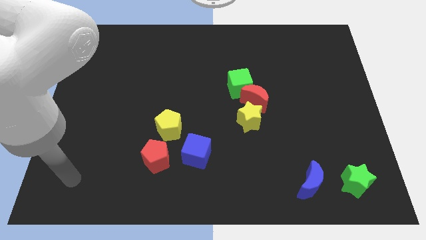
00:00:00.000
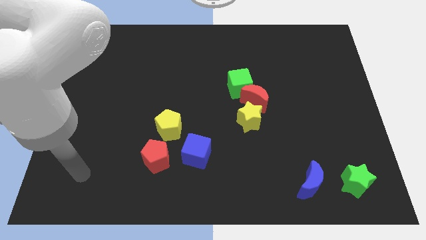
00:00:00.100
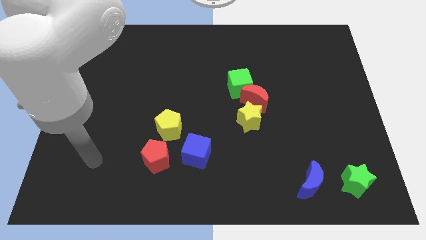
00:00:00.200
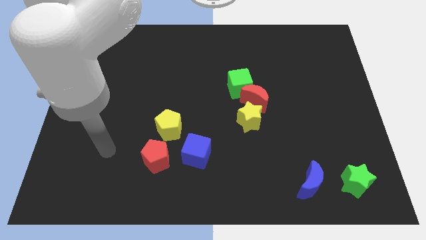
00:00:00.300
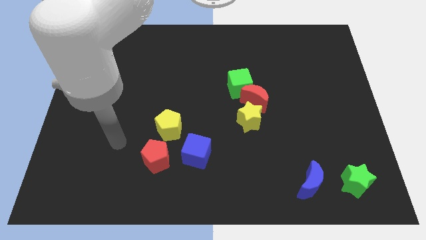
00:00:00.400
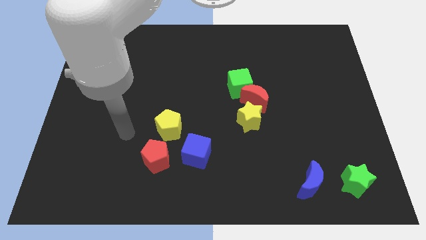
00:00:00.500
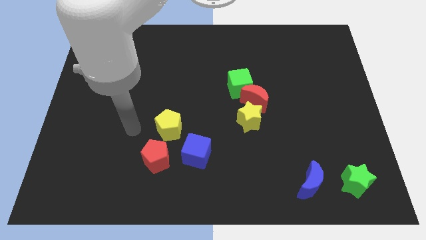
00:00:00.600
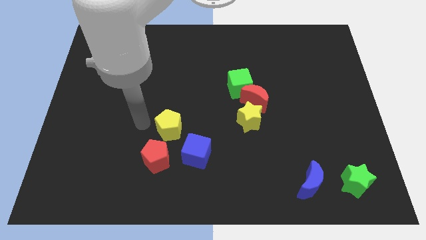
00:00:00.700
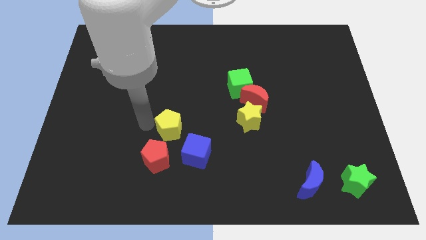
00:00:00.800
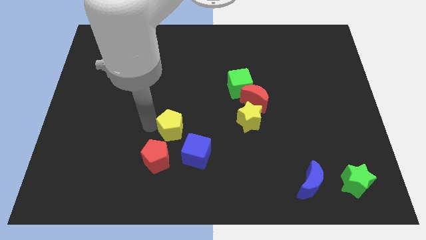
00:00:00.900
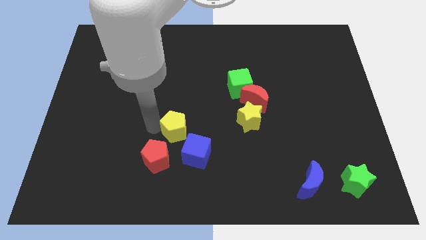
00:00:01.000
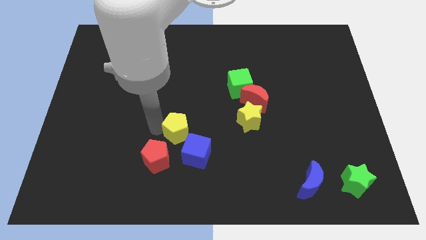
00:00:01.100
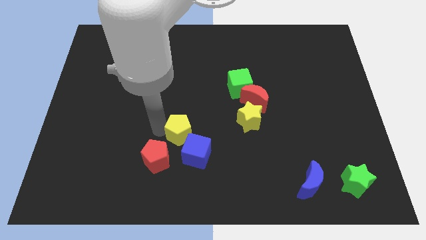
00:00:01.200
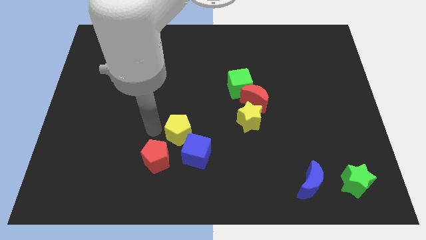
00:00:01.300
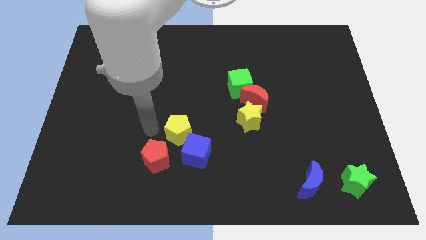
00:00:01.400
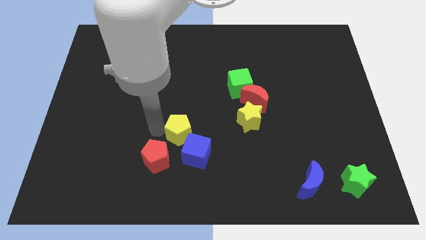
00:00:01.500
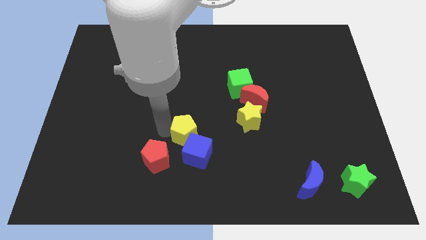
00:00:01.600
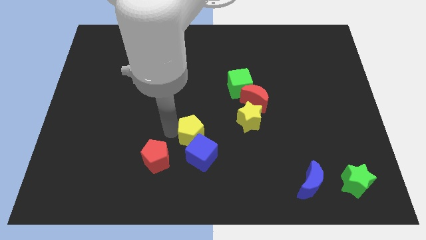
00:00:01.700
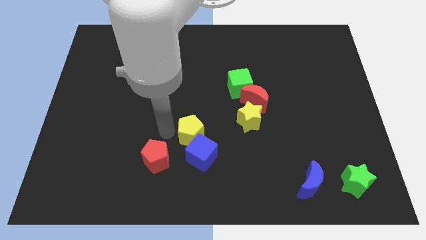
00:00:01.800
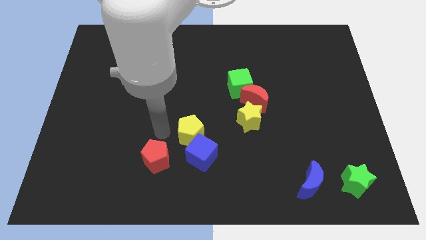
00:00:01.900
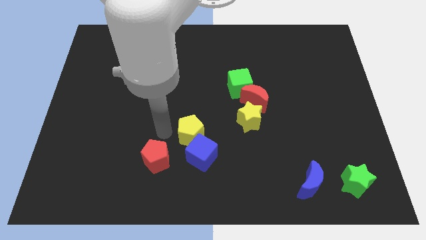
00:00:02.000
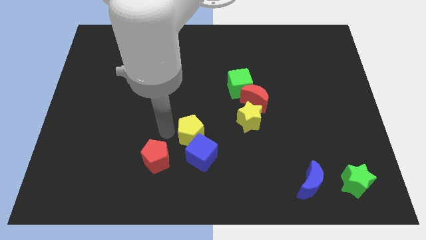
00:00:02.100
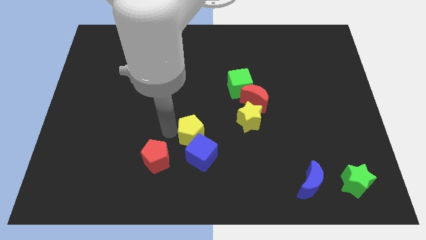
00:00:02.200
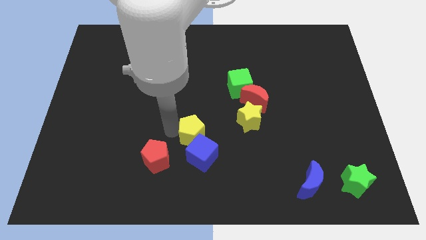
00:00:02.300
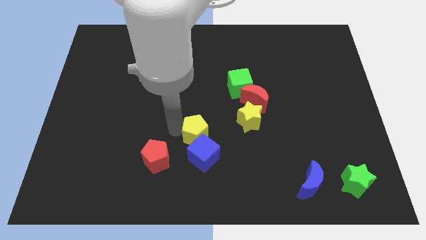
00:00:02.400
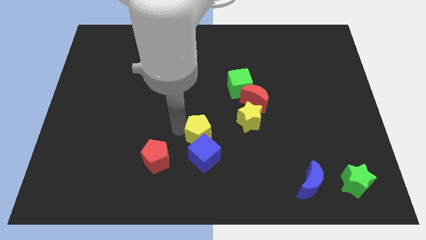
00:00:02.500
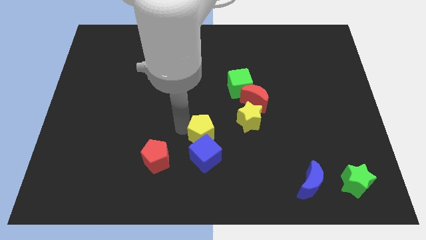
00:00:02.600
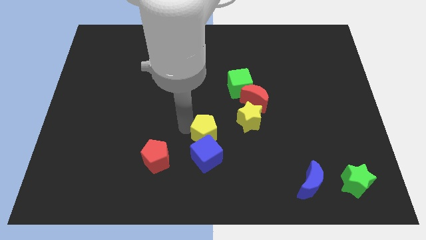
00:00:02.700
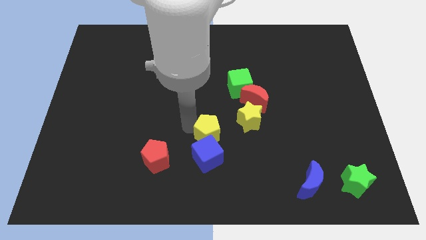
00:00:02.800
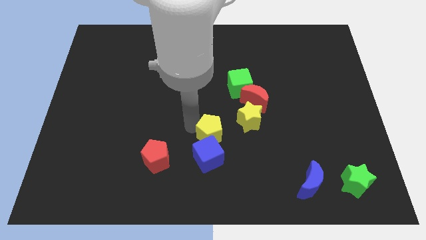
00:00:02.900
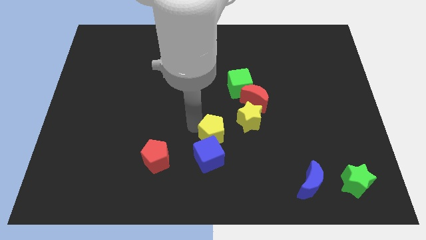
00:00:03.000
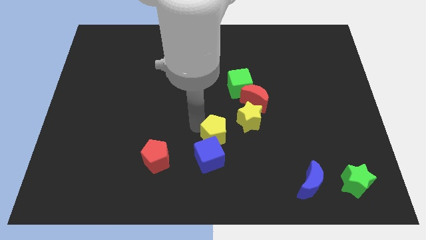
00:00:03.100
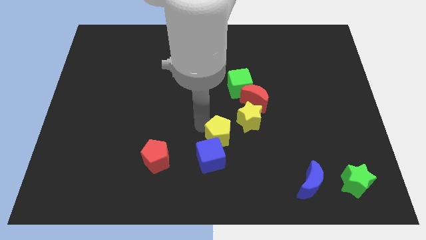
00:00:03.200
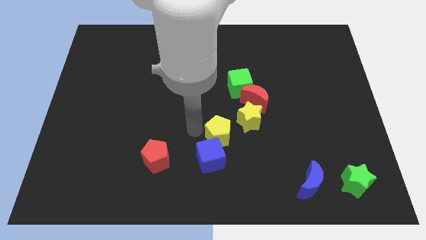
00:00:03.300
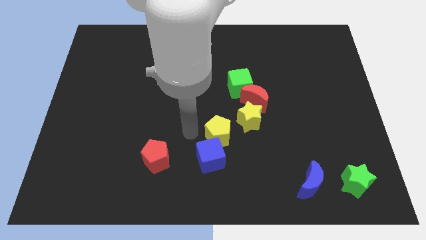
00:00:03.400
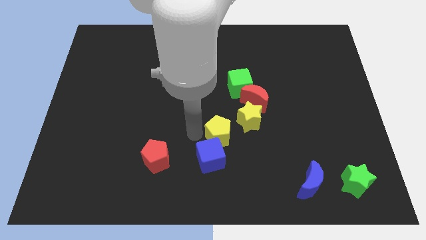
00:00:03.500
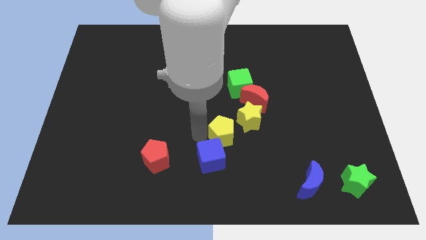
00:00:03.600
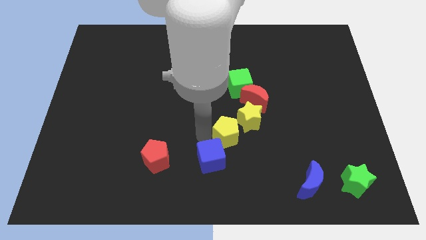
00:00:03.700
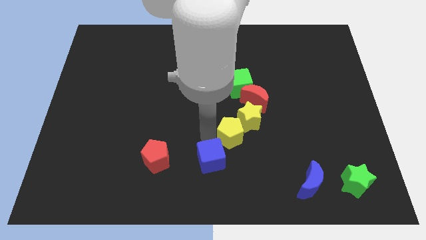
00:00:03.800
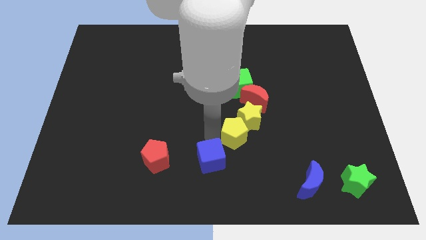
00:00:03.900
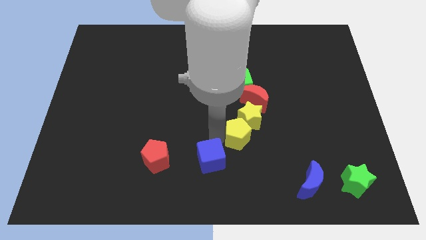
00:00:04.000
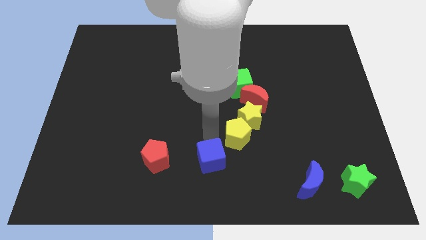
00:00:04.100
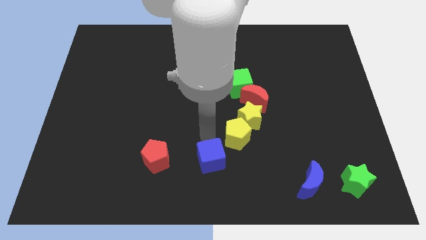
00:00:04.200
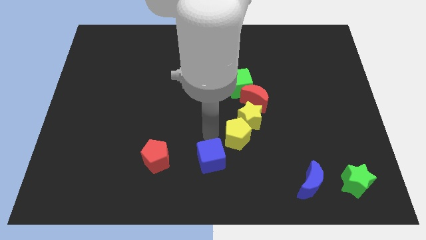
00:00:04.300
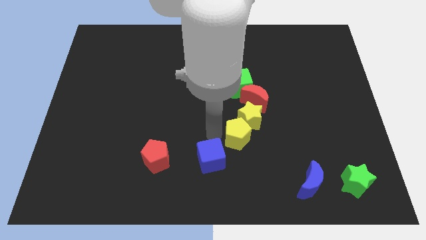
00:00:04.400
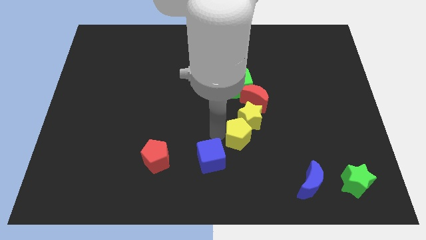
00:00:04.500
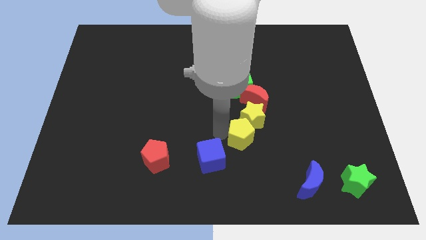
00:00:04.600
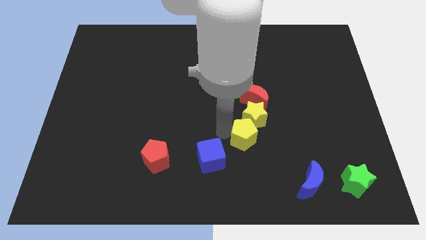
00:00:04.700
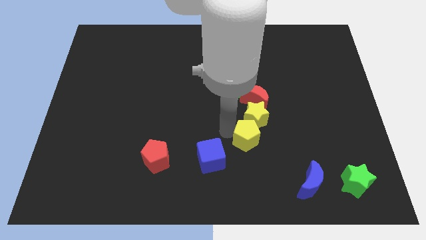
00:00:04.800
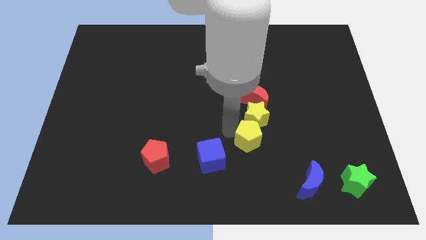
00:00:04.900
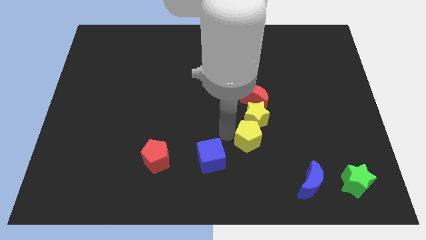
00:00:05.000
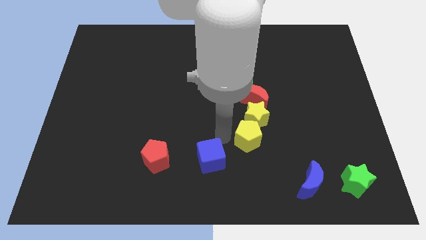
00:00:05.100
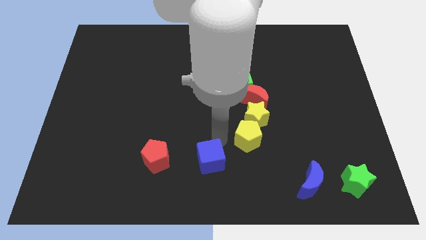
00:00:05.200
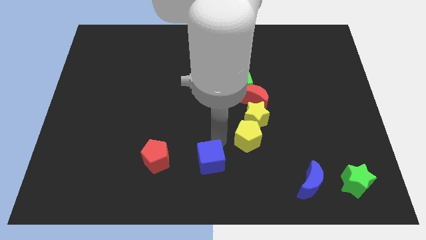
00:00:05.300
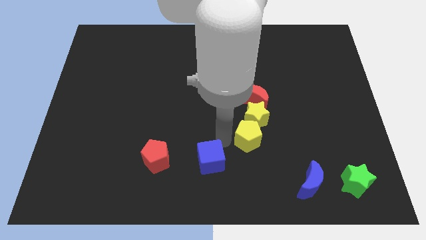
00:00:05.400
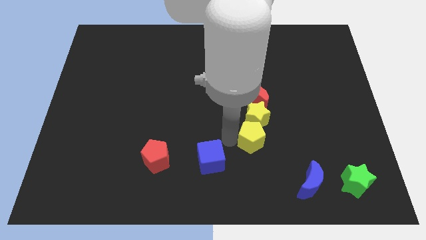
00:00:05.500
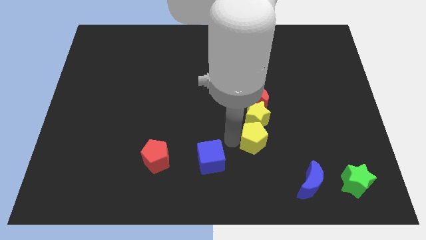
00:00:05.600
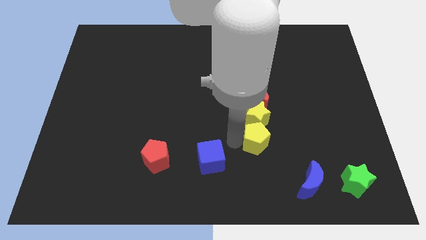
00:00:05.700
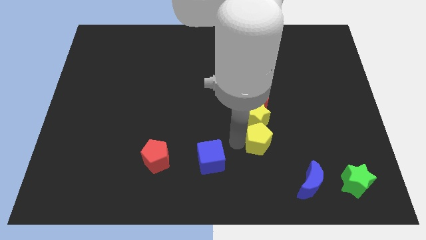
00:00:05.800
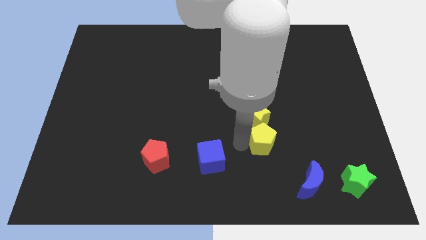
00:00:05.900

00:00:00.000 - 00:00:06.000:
move the yellow pentagon to the right

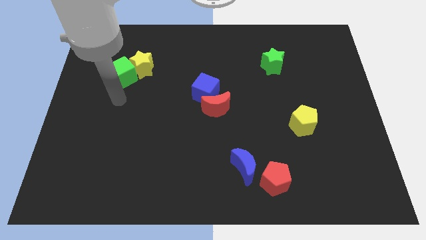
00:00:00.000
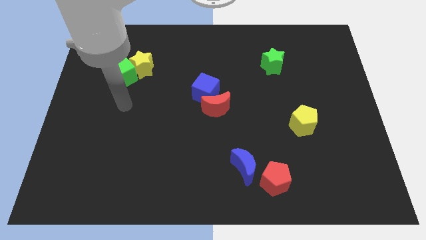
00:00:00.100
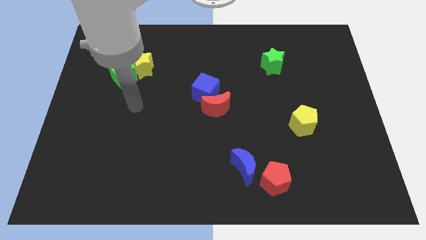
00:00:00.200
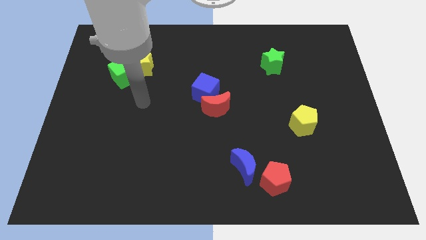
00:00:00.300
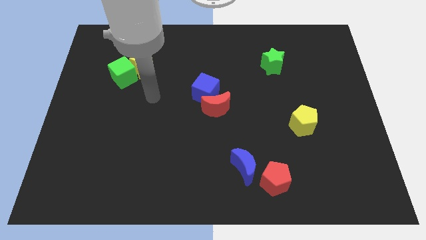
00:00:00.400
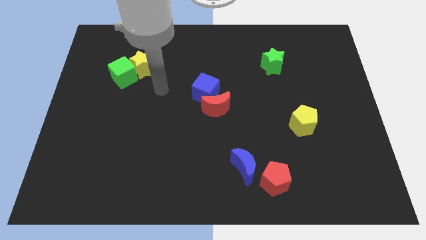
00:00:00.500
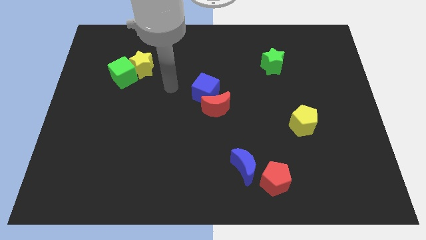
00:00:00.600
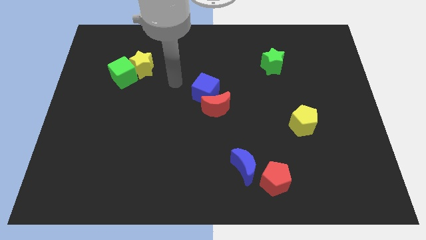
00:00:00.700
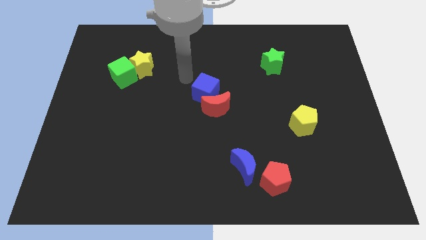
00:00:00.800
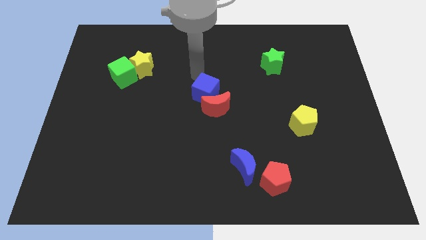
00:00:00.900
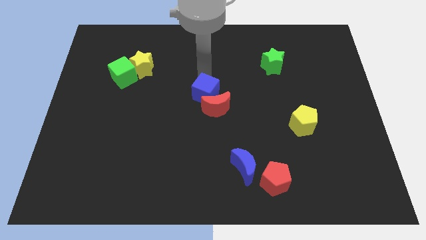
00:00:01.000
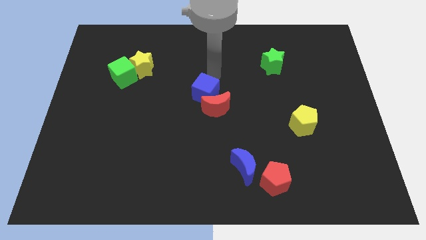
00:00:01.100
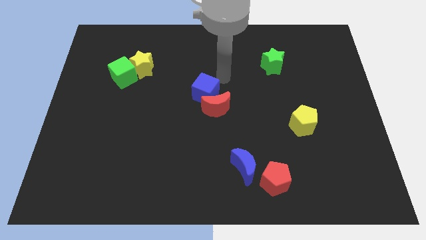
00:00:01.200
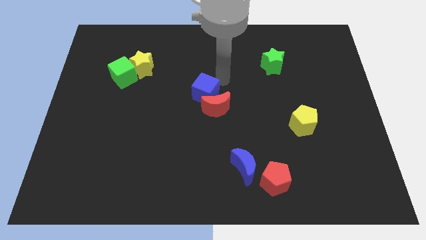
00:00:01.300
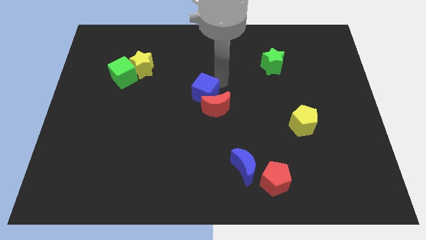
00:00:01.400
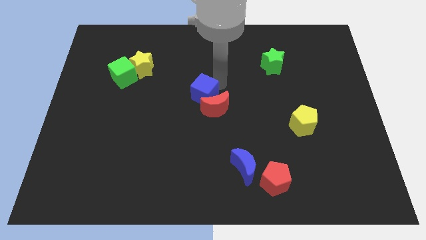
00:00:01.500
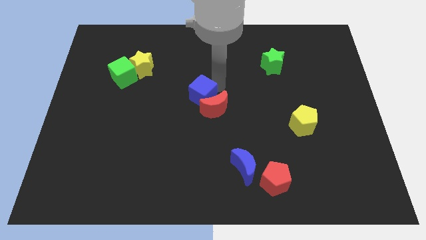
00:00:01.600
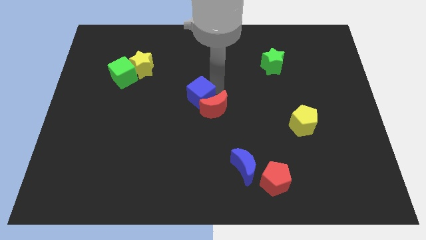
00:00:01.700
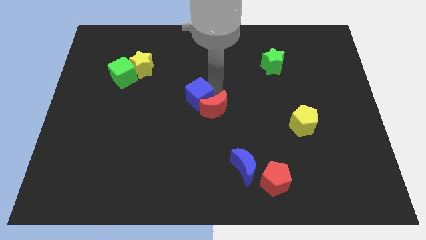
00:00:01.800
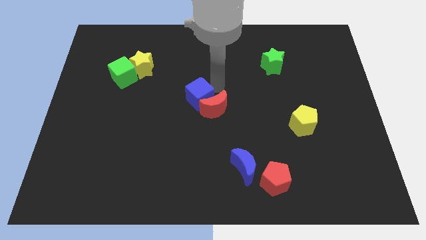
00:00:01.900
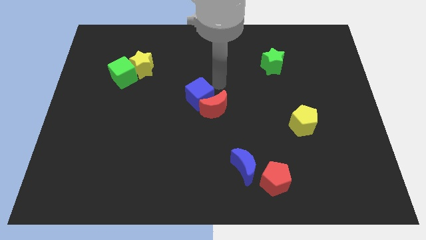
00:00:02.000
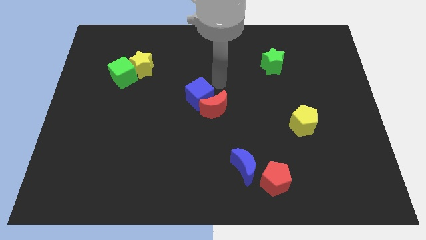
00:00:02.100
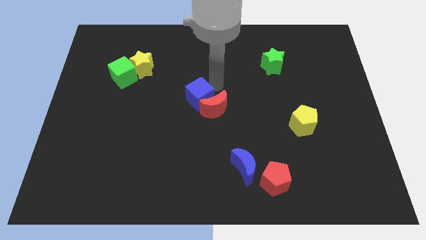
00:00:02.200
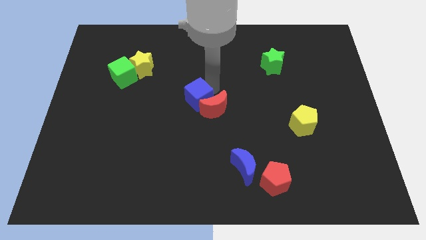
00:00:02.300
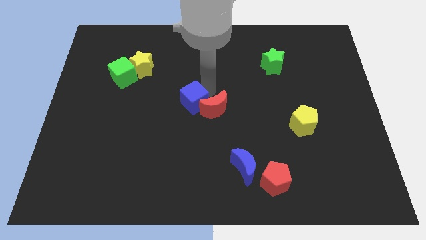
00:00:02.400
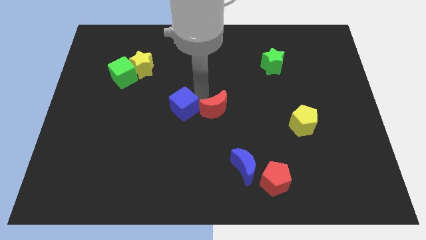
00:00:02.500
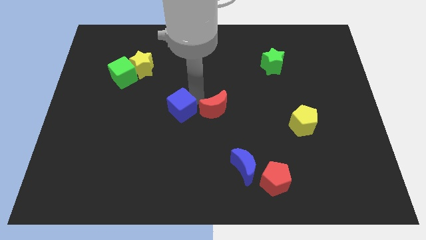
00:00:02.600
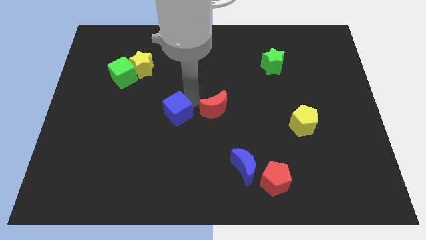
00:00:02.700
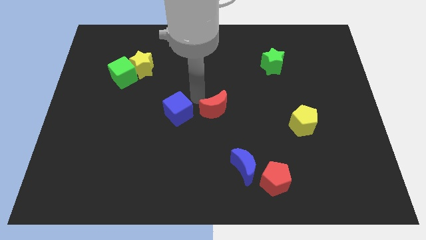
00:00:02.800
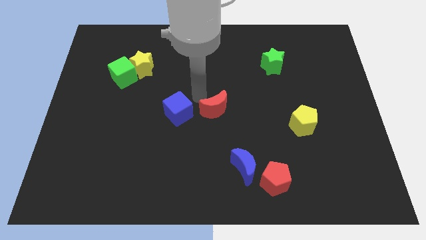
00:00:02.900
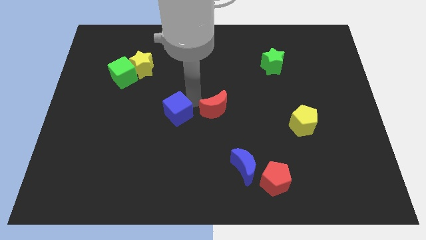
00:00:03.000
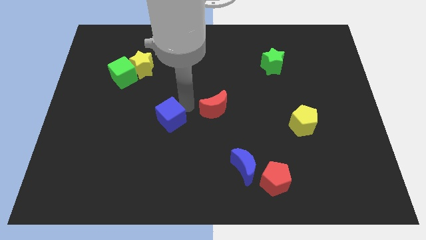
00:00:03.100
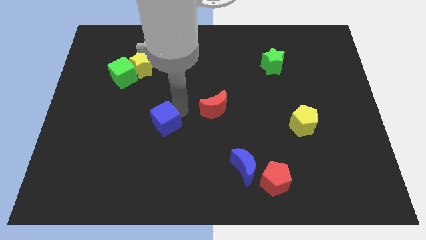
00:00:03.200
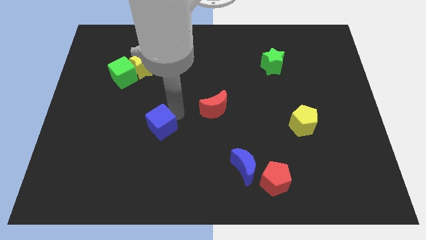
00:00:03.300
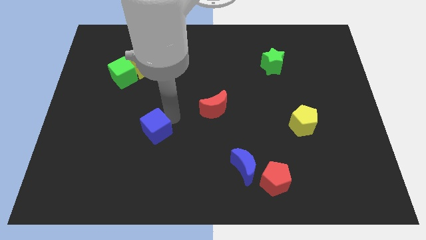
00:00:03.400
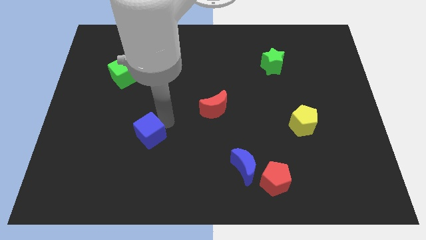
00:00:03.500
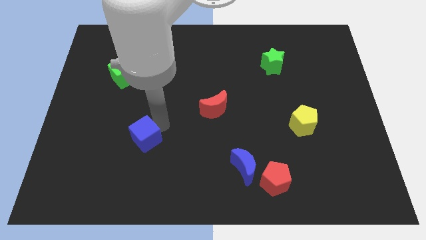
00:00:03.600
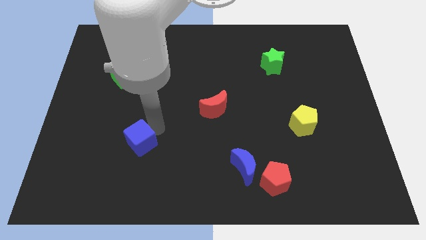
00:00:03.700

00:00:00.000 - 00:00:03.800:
move the blue cube diagonally down and to the left
